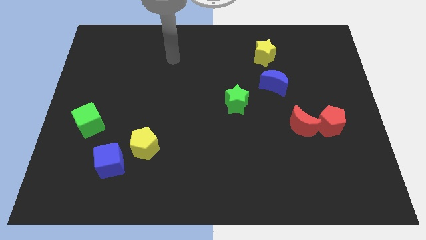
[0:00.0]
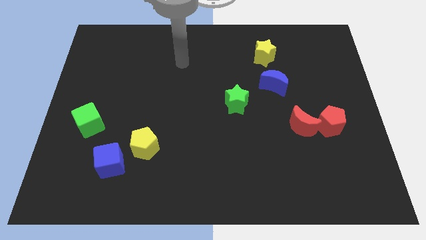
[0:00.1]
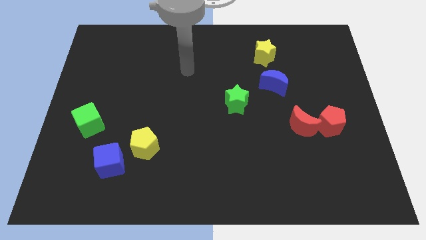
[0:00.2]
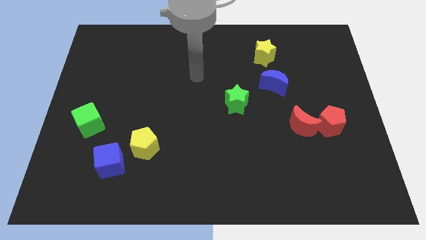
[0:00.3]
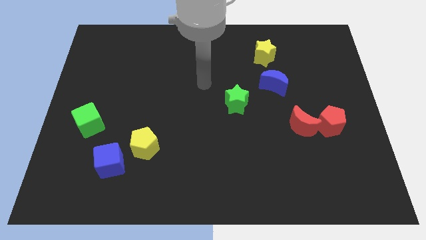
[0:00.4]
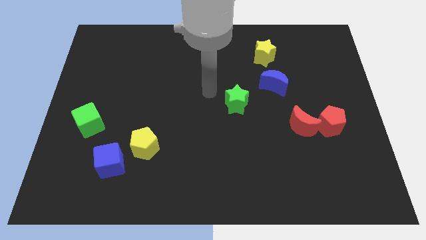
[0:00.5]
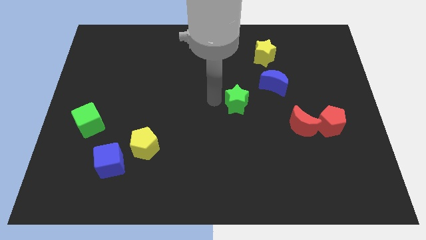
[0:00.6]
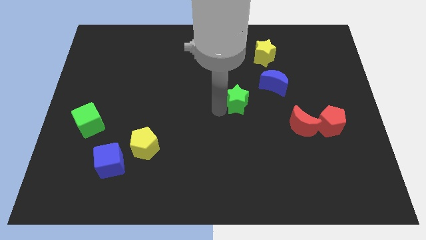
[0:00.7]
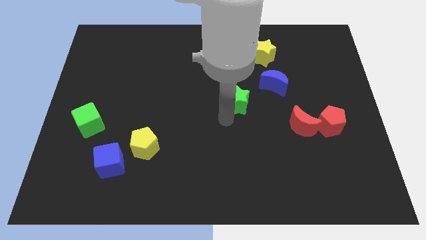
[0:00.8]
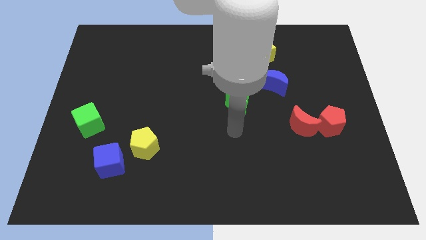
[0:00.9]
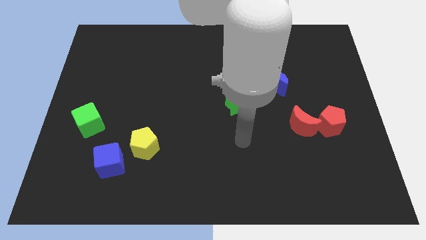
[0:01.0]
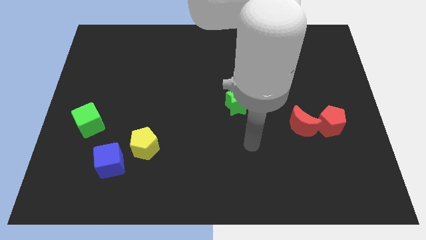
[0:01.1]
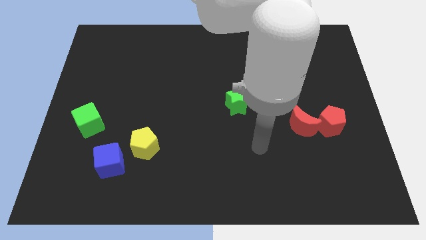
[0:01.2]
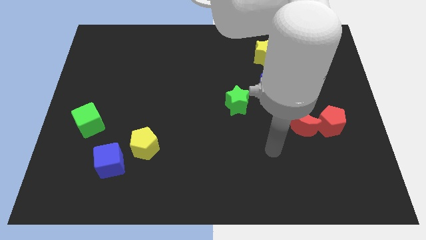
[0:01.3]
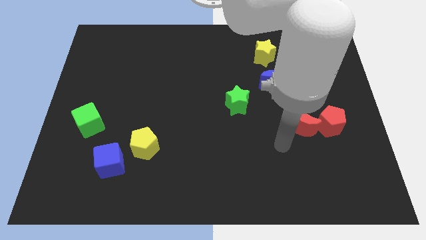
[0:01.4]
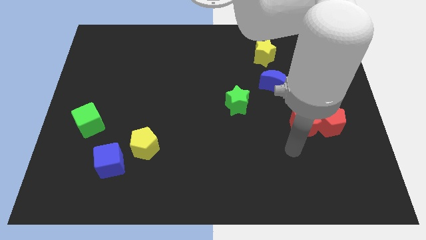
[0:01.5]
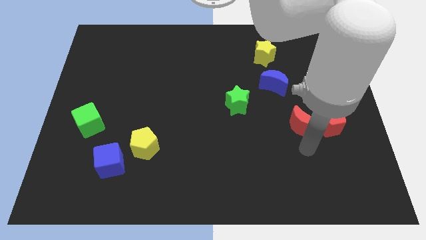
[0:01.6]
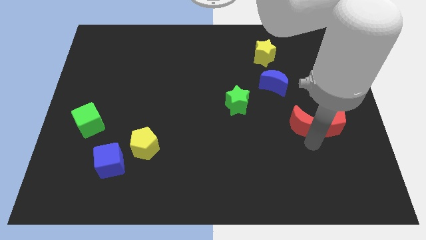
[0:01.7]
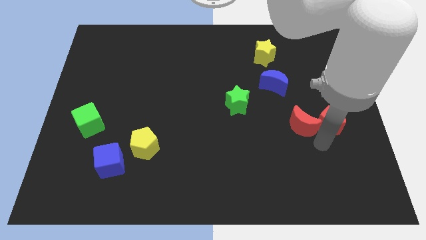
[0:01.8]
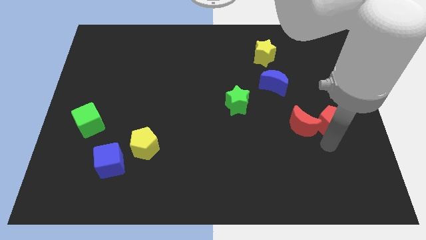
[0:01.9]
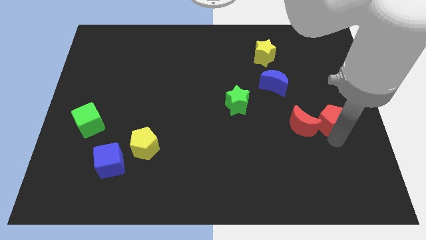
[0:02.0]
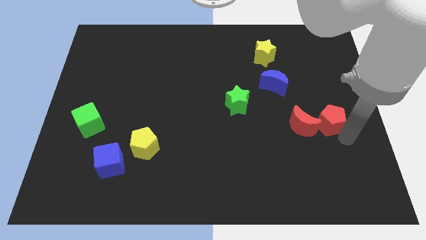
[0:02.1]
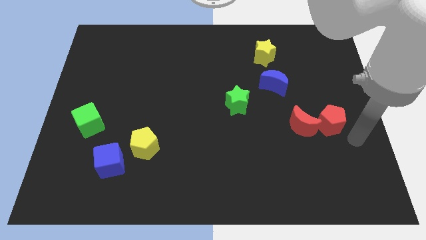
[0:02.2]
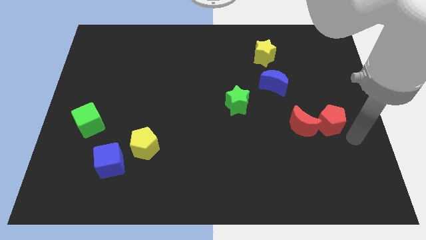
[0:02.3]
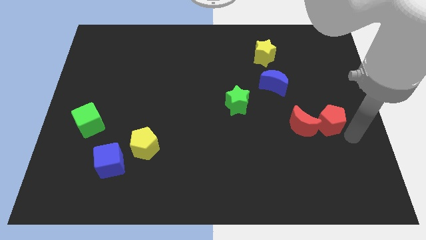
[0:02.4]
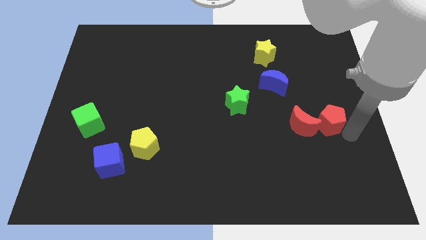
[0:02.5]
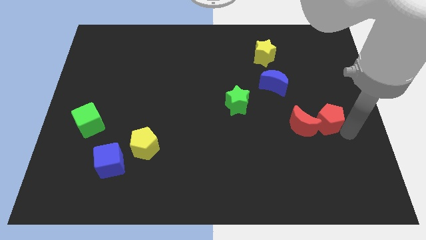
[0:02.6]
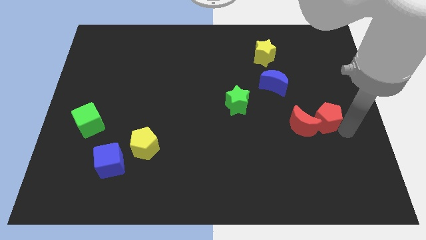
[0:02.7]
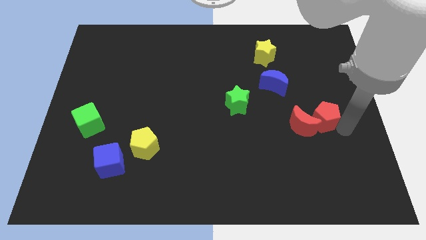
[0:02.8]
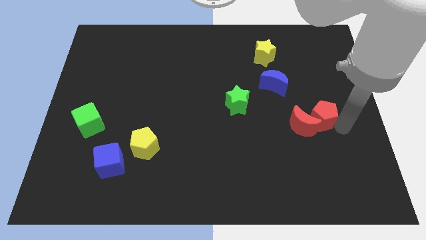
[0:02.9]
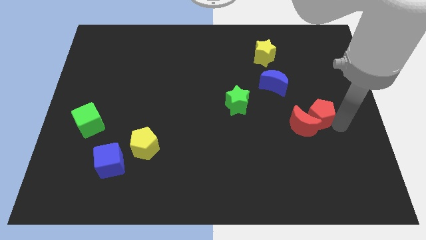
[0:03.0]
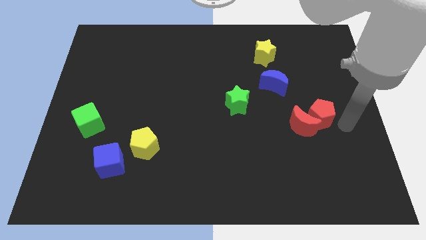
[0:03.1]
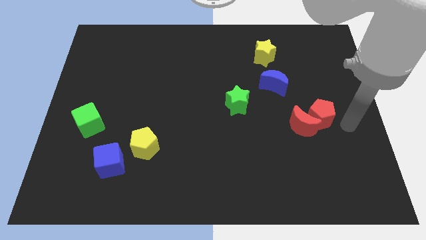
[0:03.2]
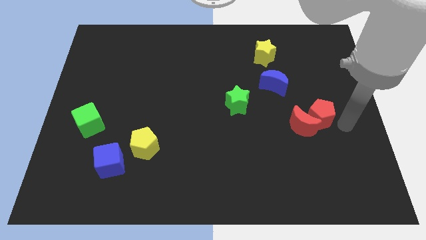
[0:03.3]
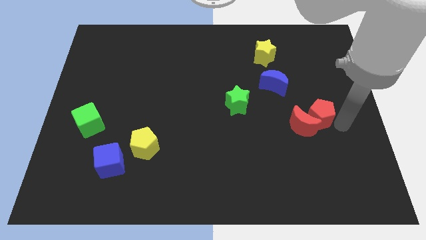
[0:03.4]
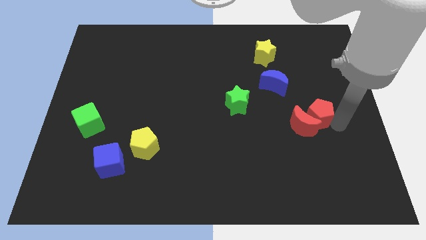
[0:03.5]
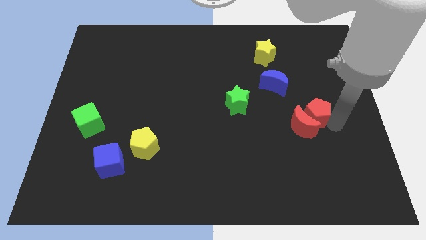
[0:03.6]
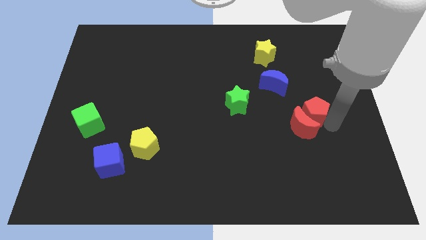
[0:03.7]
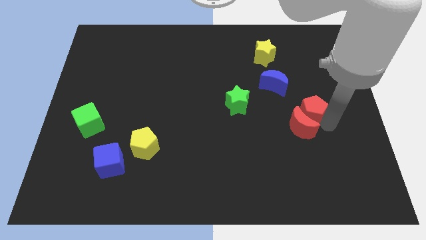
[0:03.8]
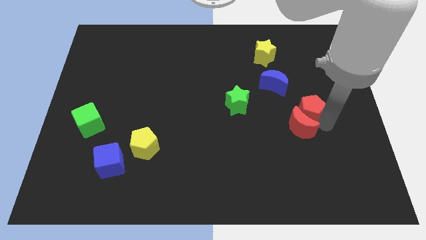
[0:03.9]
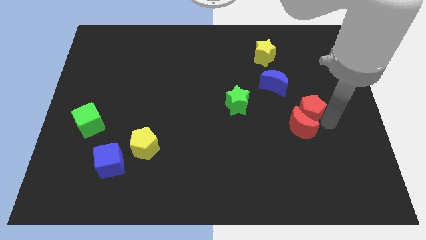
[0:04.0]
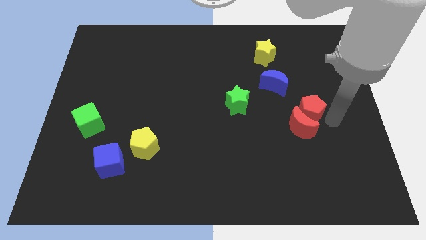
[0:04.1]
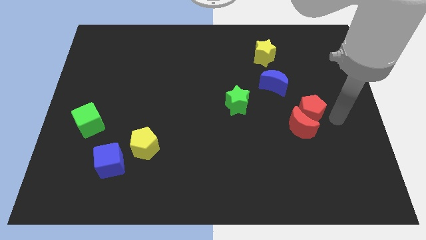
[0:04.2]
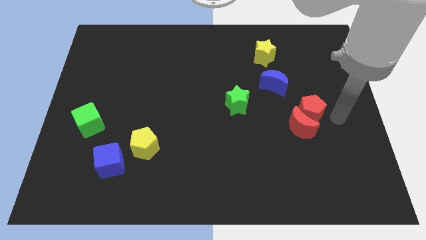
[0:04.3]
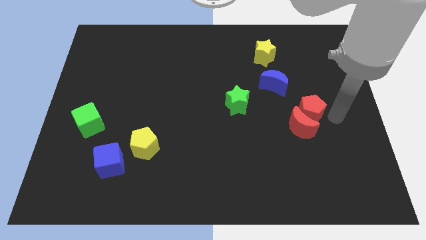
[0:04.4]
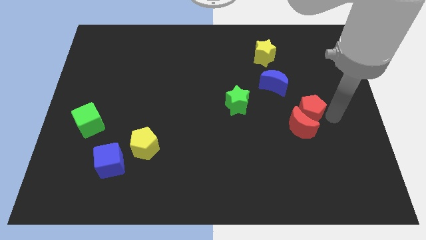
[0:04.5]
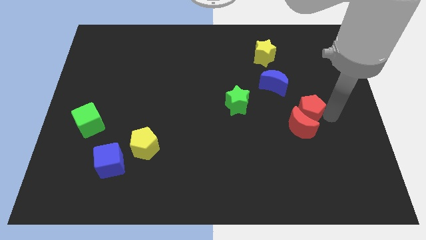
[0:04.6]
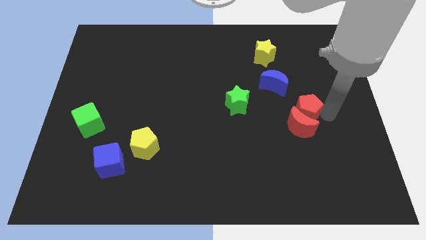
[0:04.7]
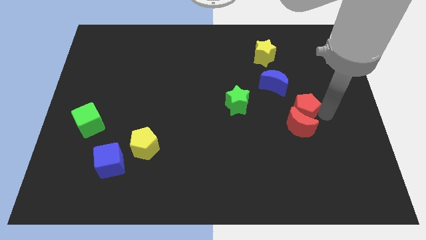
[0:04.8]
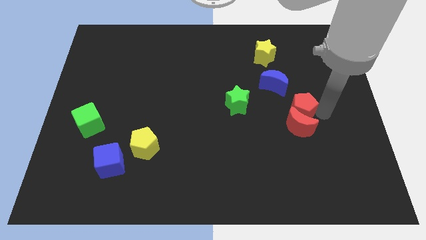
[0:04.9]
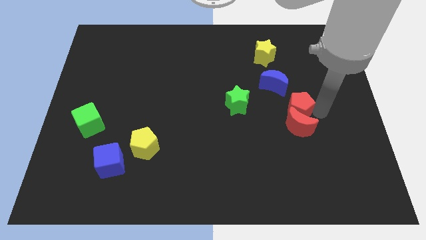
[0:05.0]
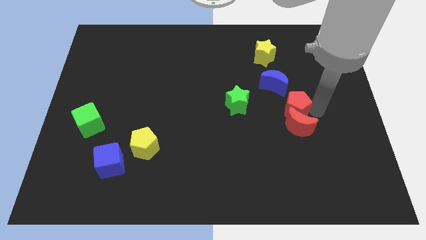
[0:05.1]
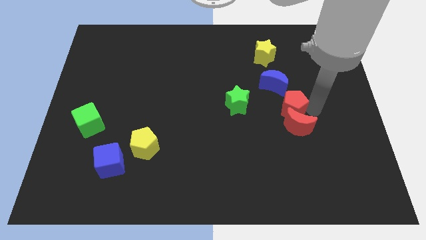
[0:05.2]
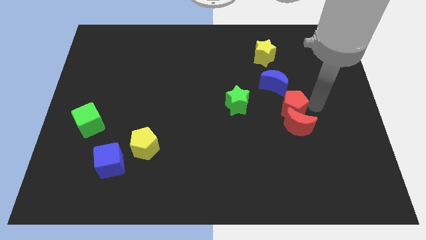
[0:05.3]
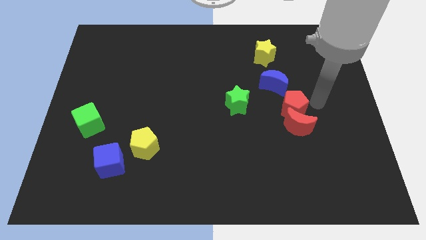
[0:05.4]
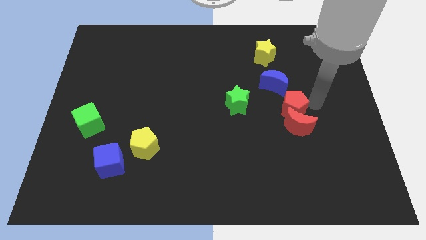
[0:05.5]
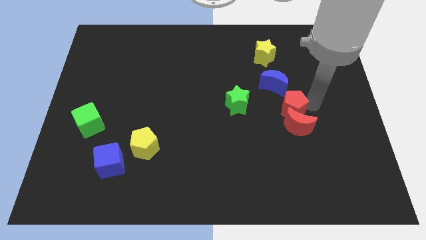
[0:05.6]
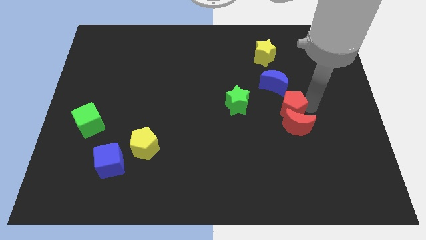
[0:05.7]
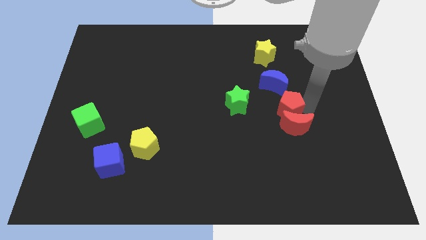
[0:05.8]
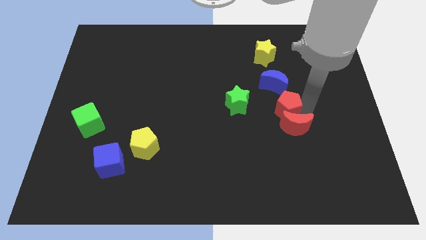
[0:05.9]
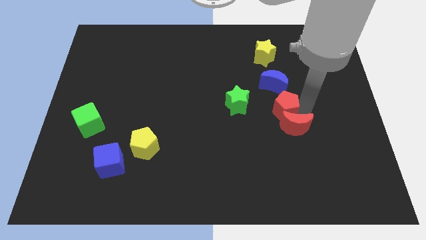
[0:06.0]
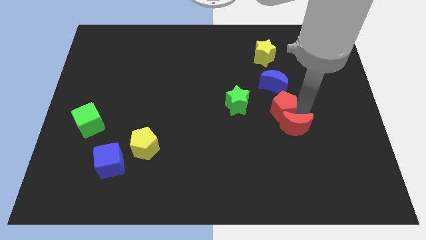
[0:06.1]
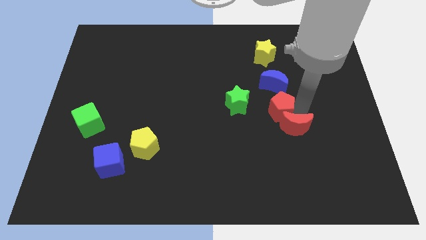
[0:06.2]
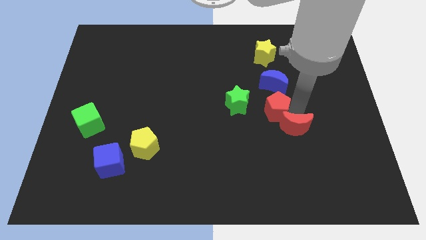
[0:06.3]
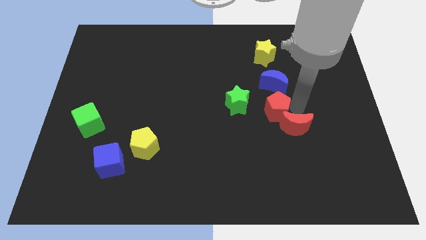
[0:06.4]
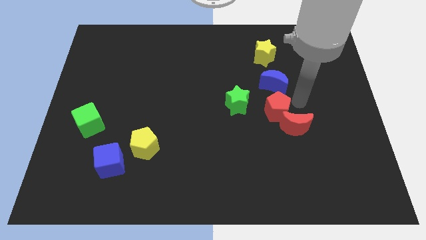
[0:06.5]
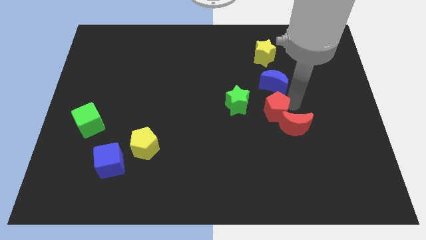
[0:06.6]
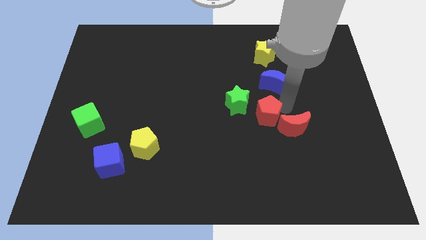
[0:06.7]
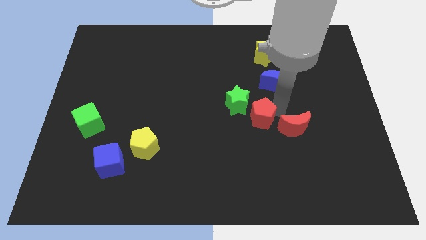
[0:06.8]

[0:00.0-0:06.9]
put the red pentagon to the middle of the board
